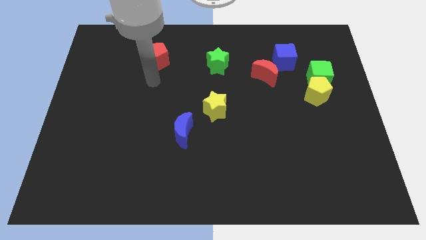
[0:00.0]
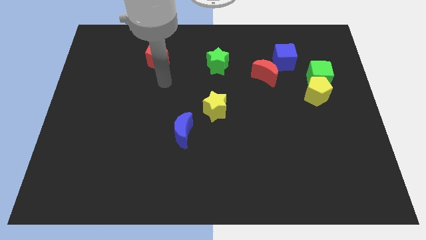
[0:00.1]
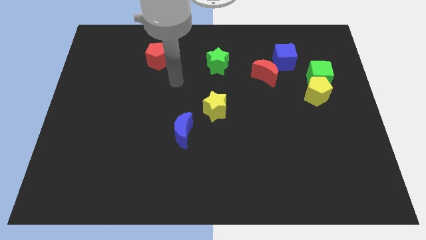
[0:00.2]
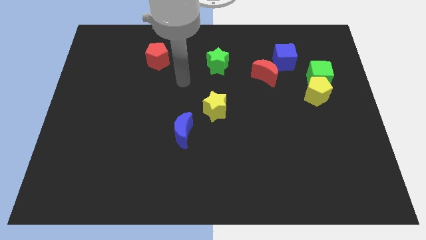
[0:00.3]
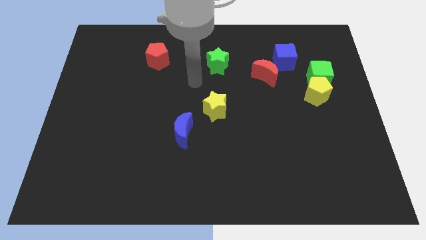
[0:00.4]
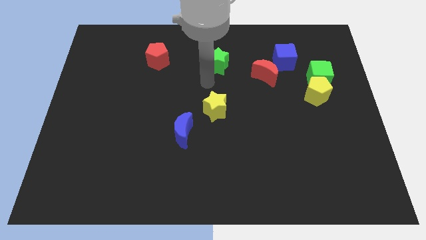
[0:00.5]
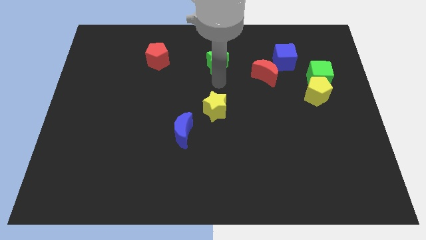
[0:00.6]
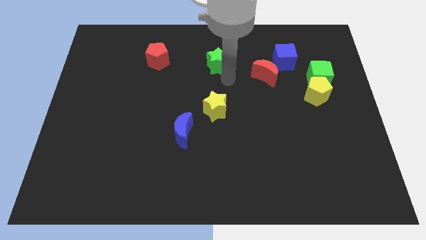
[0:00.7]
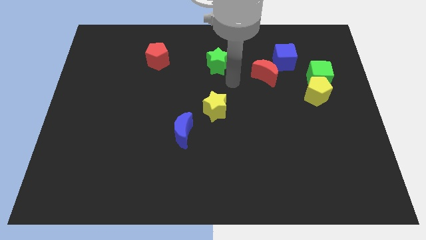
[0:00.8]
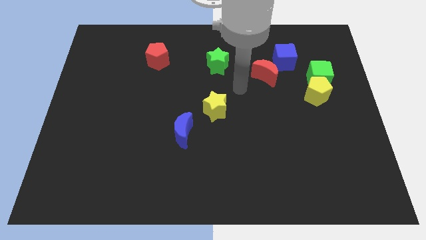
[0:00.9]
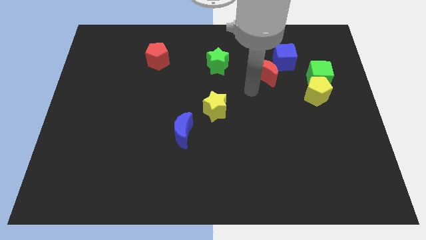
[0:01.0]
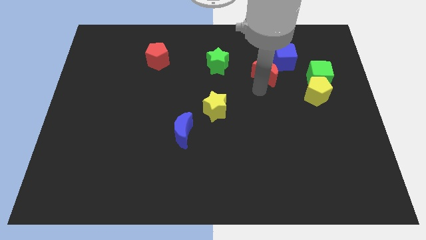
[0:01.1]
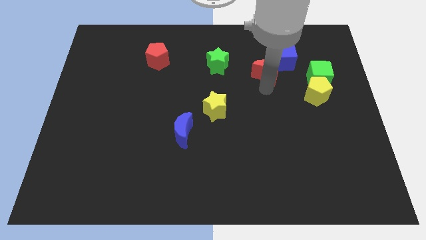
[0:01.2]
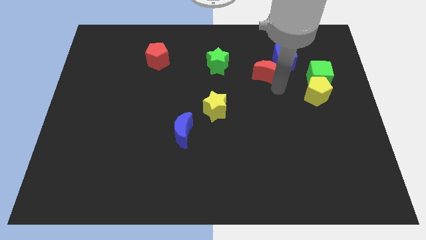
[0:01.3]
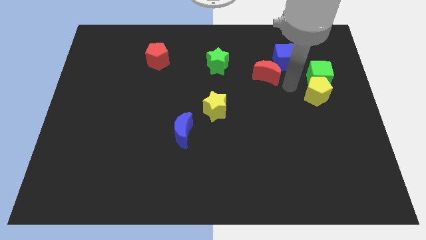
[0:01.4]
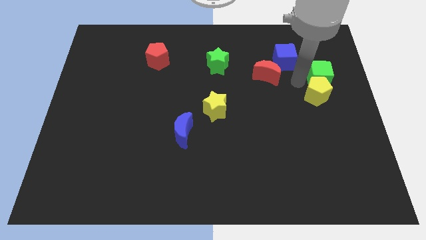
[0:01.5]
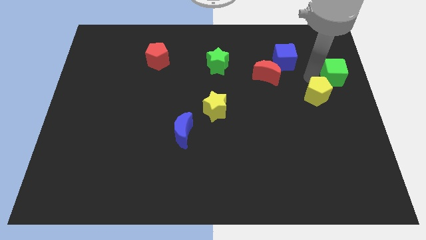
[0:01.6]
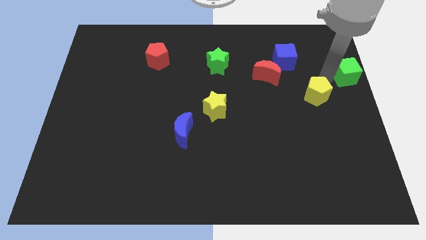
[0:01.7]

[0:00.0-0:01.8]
separate the yellow pentagon from the green cube

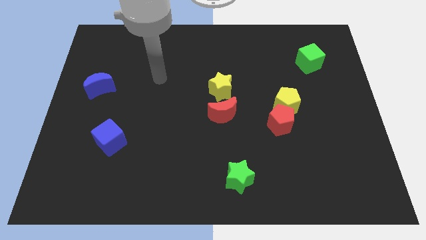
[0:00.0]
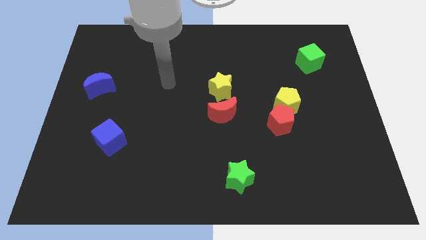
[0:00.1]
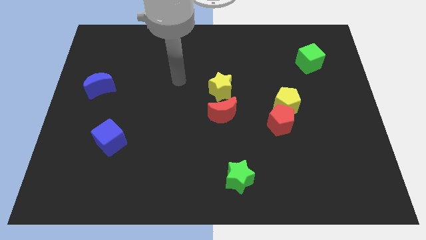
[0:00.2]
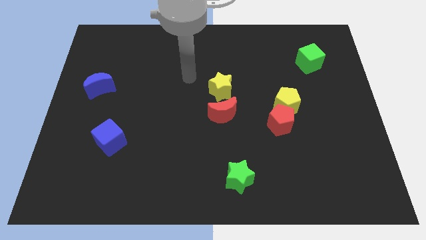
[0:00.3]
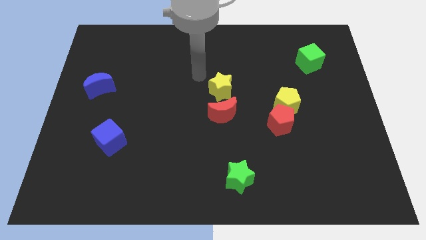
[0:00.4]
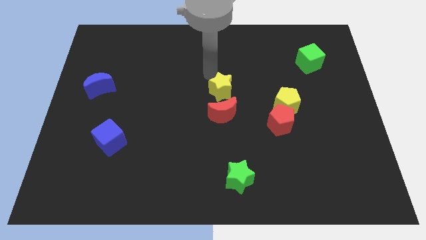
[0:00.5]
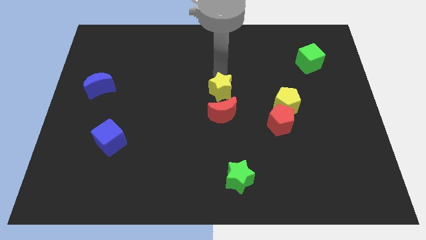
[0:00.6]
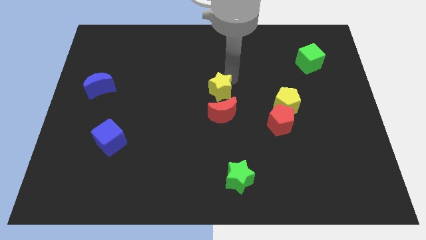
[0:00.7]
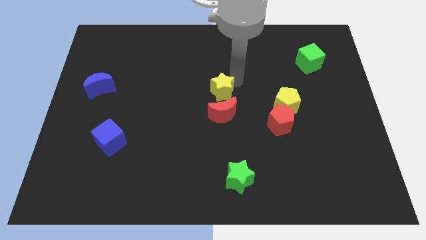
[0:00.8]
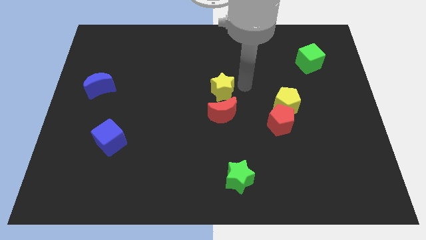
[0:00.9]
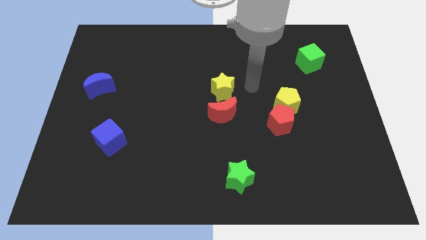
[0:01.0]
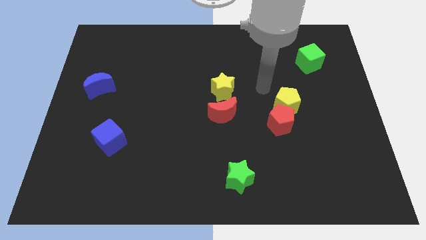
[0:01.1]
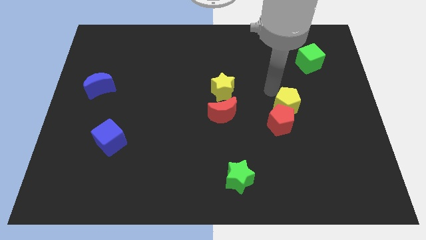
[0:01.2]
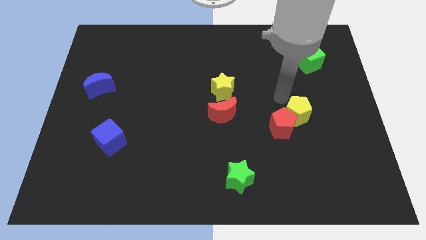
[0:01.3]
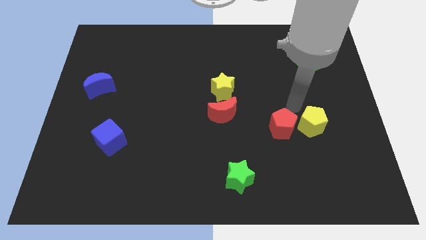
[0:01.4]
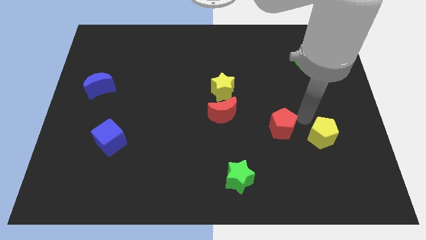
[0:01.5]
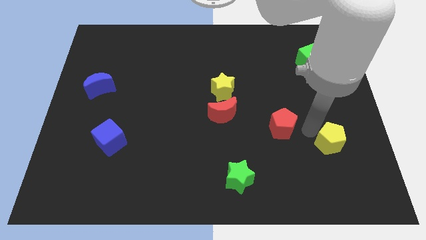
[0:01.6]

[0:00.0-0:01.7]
separate the red pentagon from the yellow pentagon

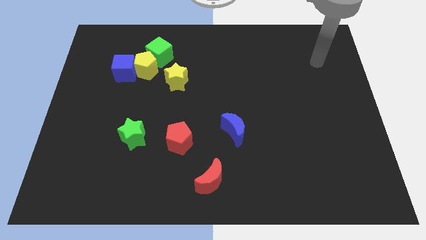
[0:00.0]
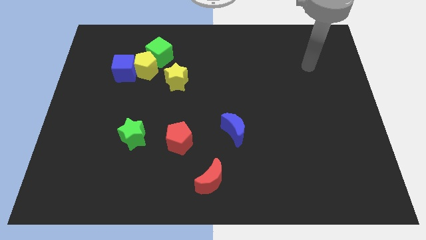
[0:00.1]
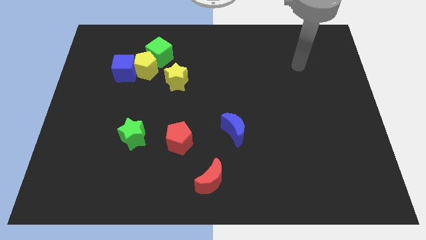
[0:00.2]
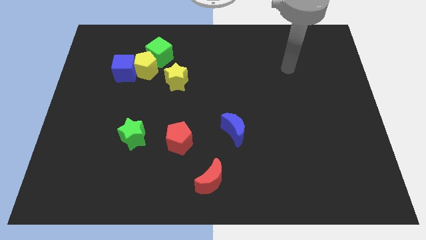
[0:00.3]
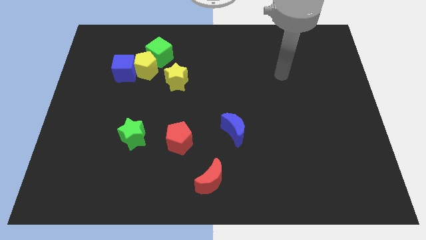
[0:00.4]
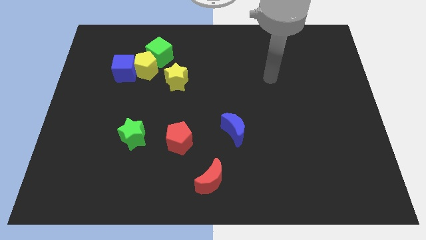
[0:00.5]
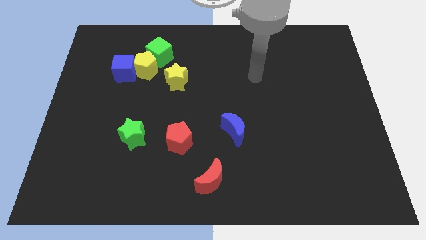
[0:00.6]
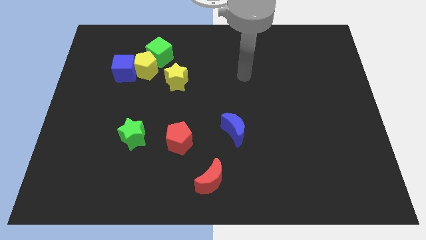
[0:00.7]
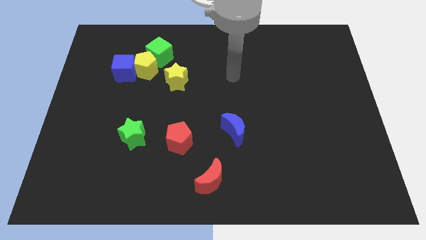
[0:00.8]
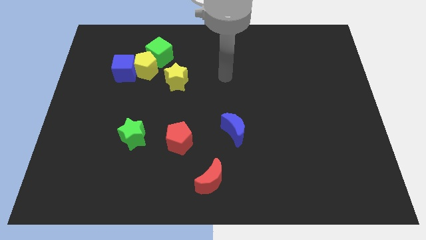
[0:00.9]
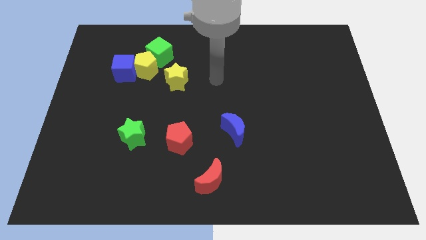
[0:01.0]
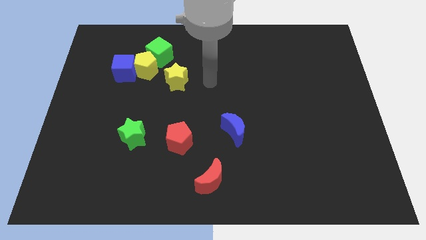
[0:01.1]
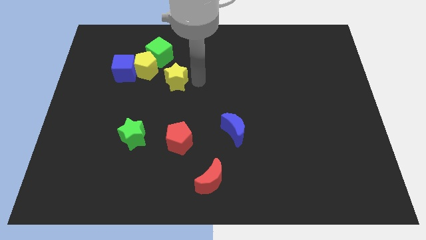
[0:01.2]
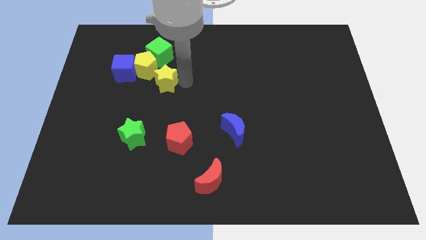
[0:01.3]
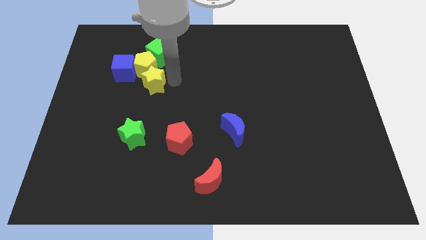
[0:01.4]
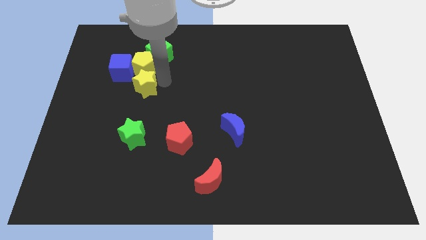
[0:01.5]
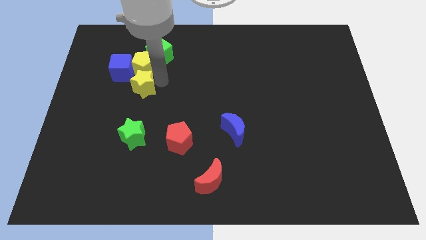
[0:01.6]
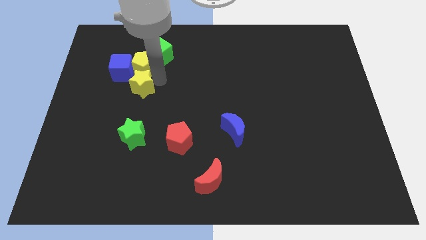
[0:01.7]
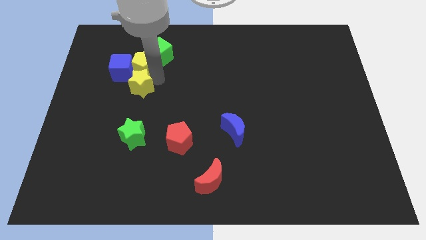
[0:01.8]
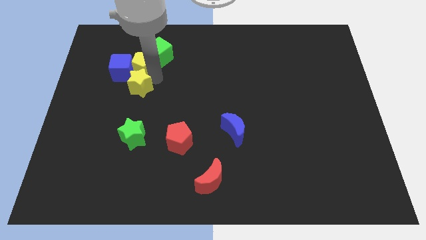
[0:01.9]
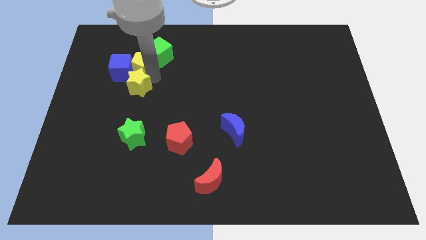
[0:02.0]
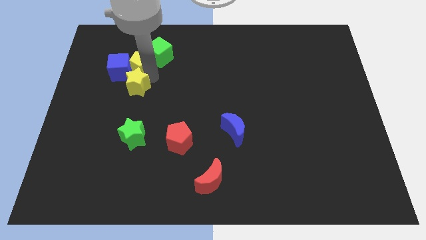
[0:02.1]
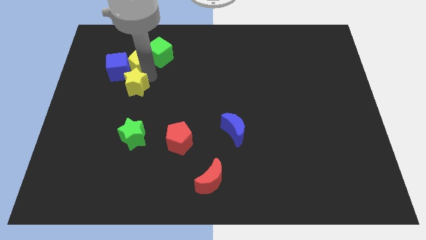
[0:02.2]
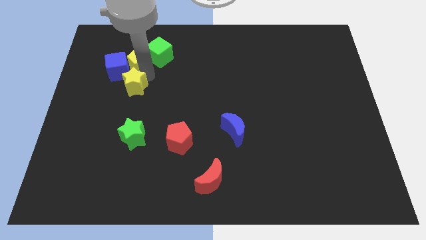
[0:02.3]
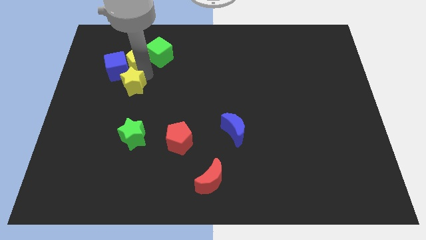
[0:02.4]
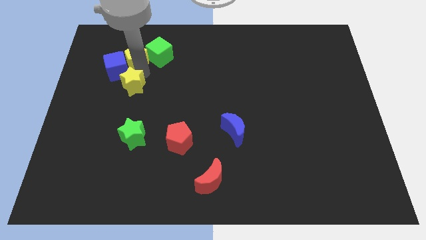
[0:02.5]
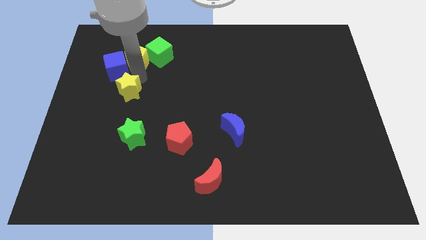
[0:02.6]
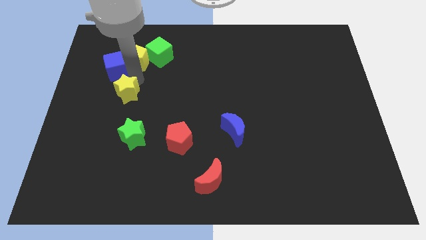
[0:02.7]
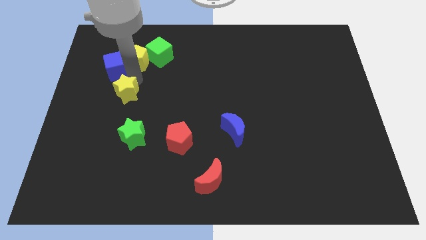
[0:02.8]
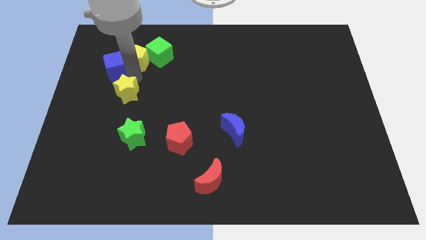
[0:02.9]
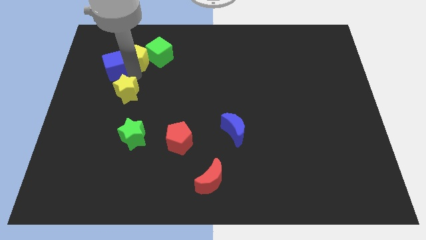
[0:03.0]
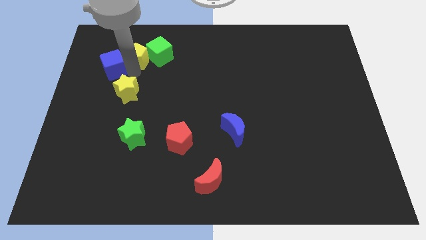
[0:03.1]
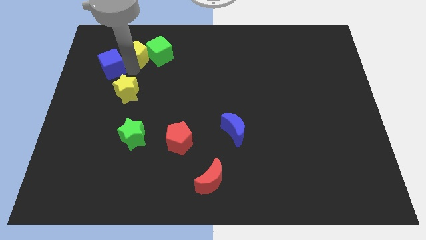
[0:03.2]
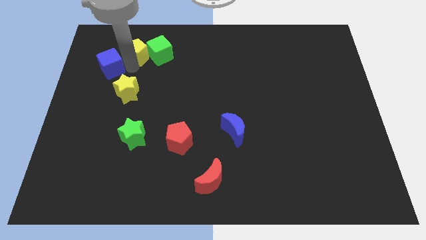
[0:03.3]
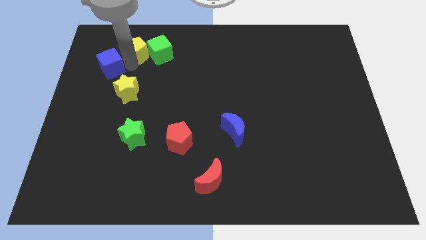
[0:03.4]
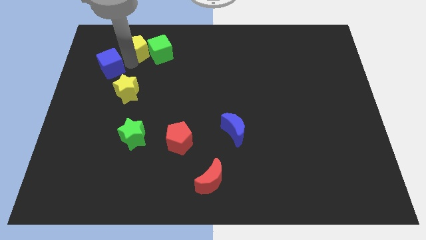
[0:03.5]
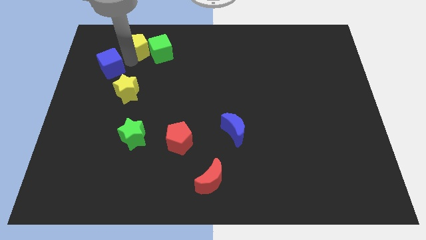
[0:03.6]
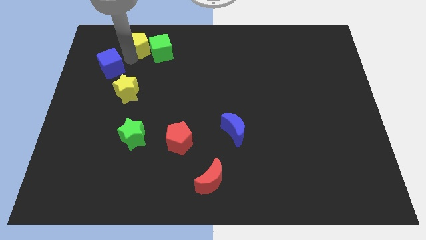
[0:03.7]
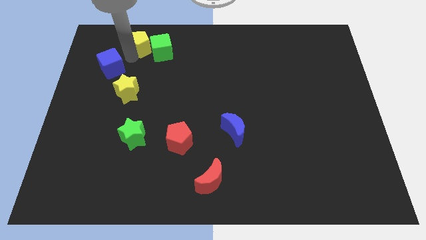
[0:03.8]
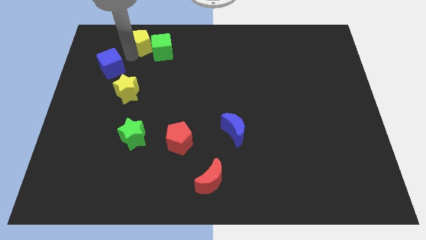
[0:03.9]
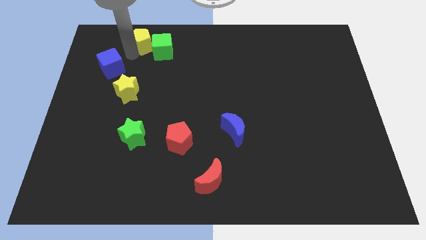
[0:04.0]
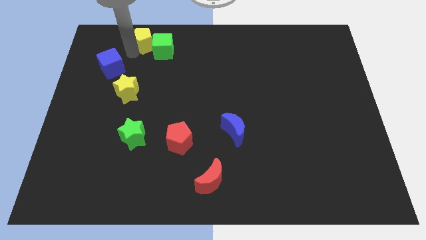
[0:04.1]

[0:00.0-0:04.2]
pull the yellow pentagon apart from the blue cube, green cube, and yellow star

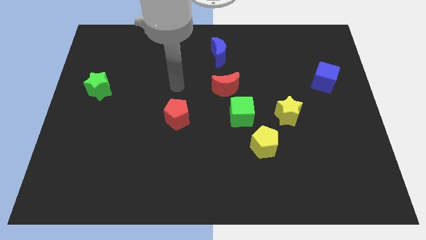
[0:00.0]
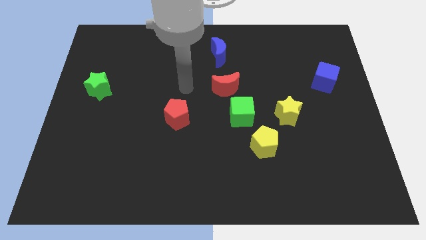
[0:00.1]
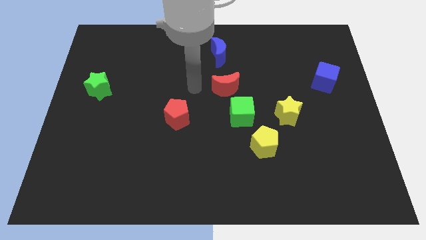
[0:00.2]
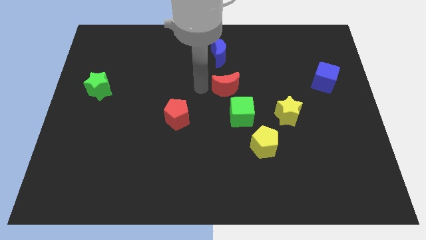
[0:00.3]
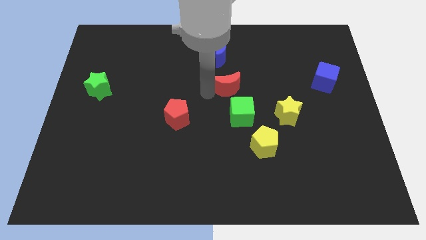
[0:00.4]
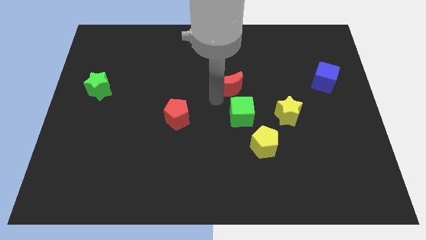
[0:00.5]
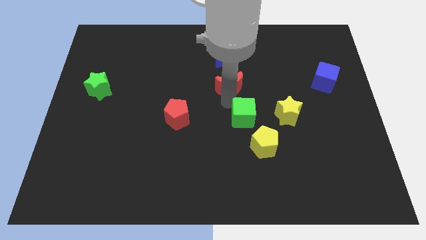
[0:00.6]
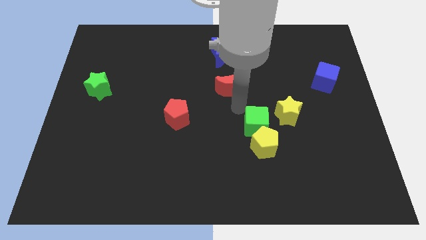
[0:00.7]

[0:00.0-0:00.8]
move the red moon away from the green cube

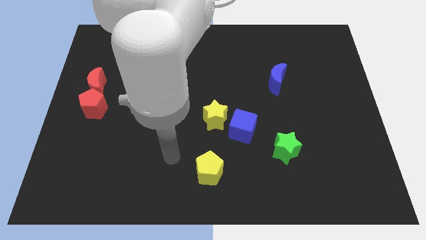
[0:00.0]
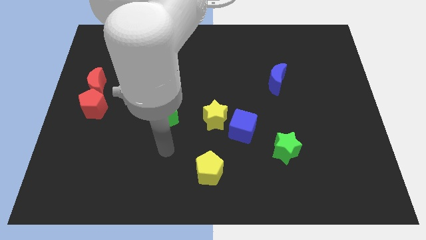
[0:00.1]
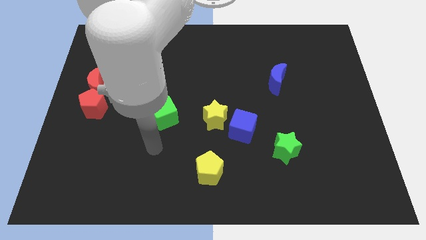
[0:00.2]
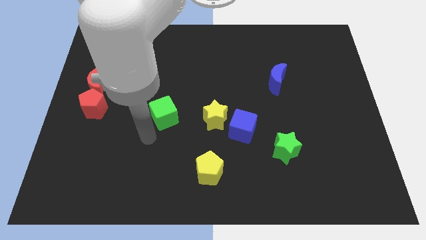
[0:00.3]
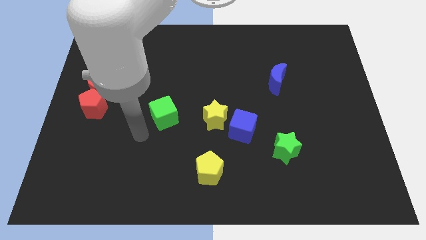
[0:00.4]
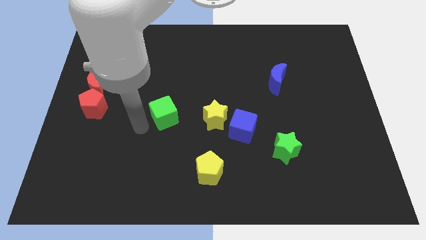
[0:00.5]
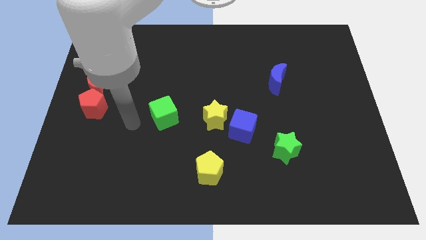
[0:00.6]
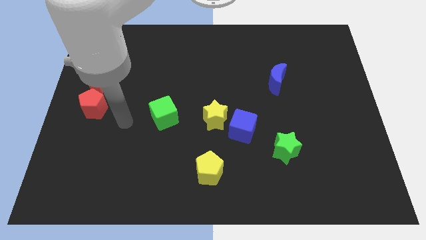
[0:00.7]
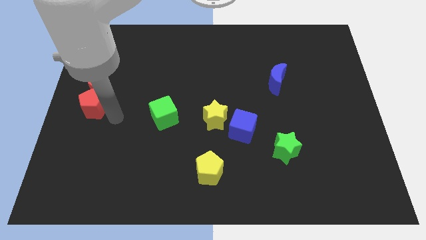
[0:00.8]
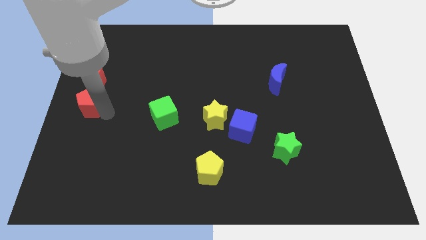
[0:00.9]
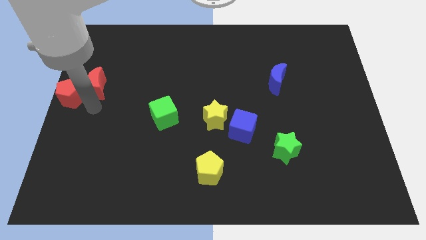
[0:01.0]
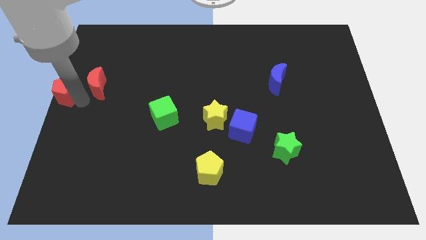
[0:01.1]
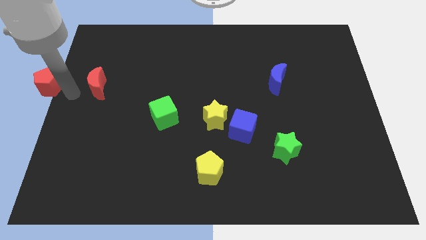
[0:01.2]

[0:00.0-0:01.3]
separate the red moon from the red pentagon
